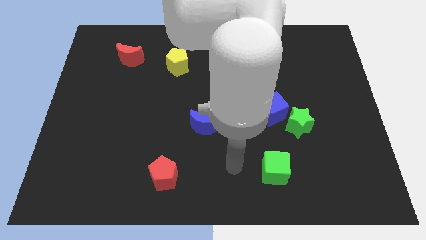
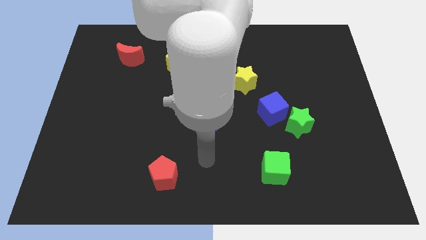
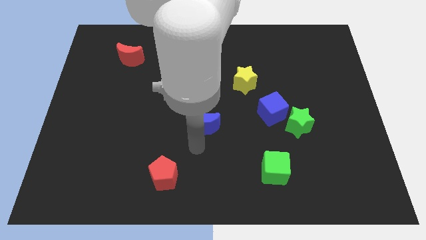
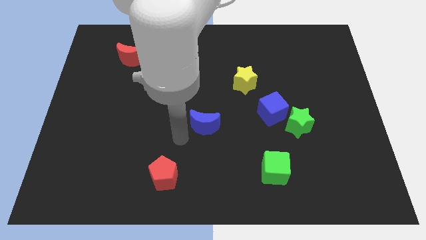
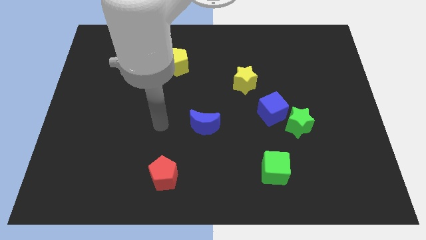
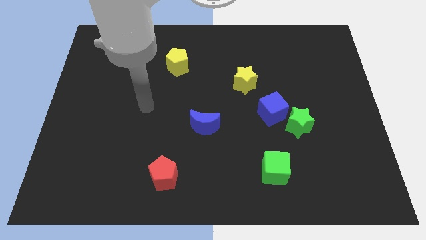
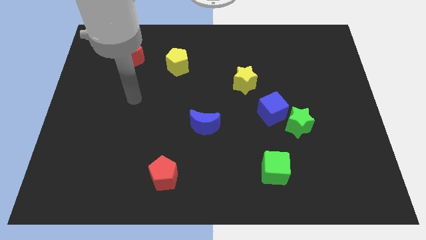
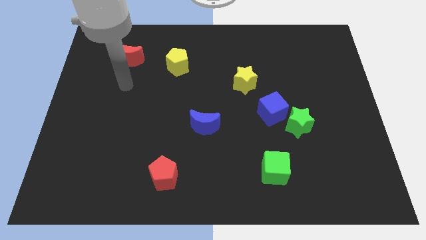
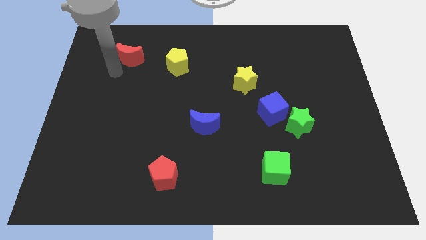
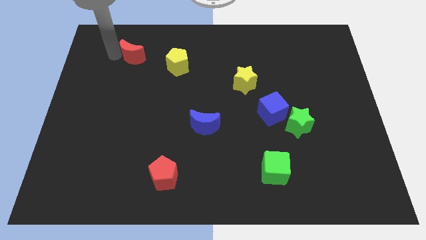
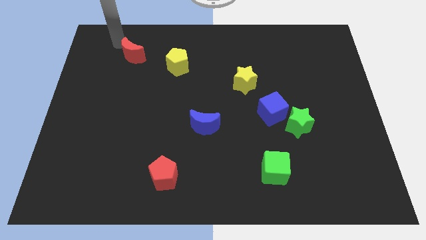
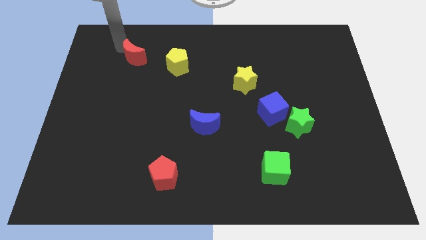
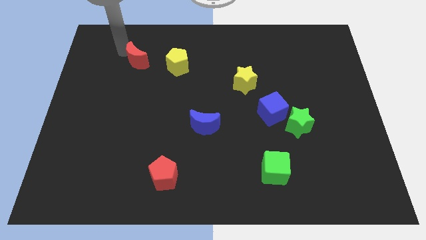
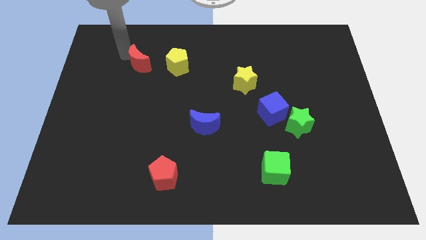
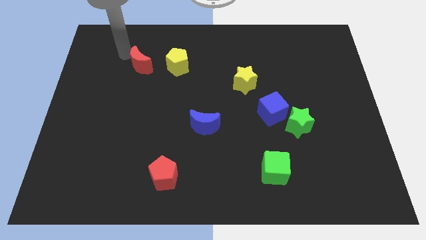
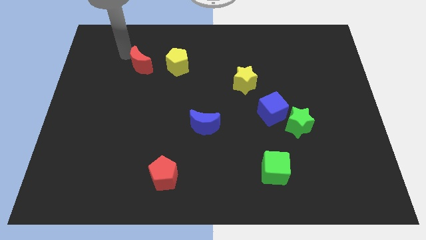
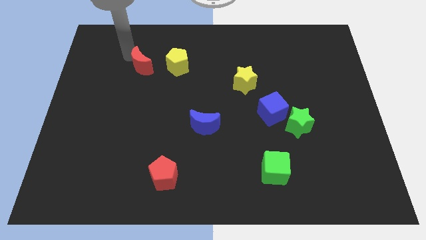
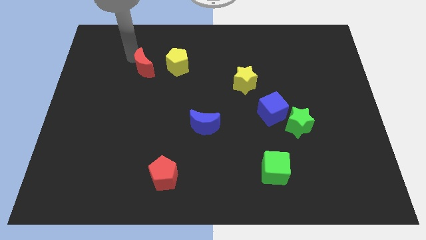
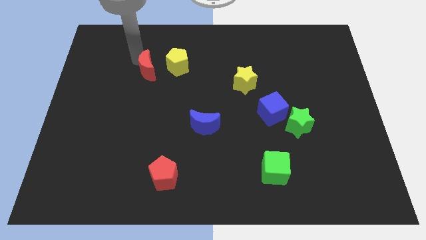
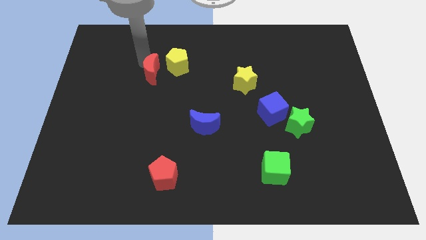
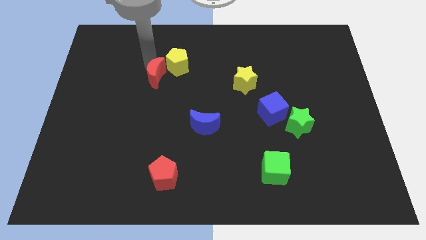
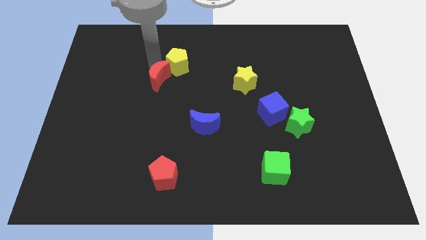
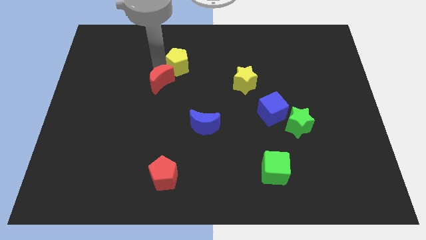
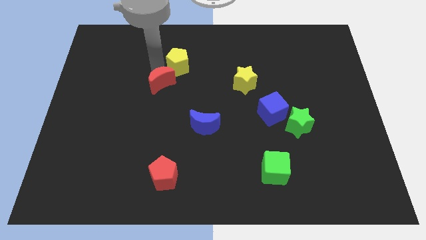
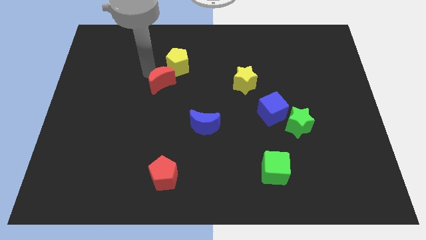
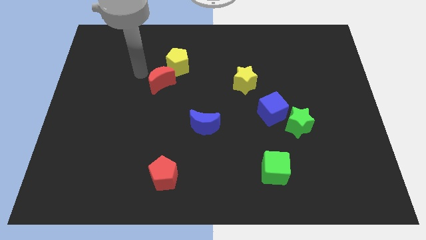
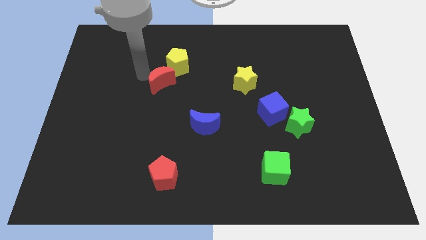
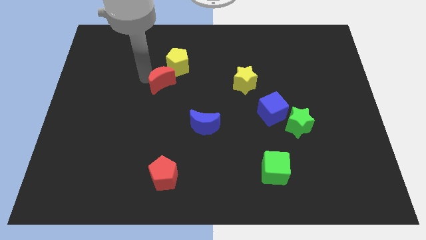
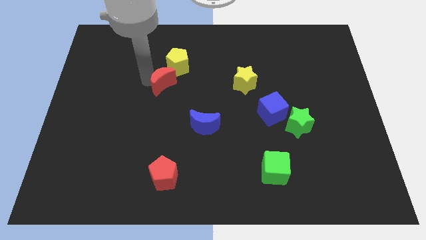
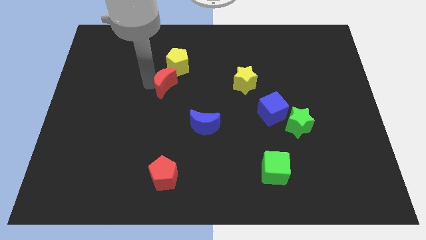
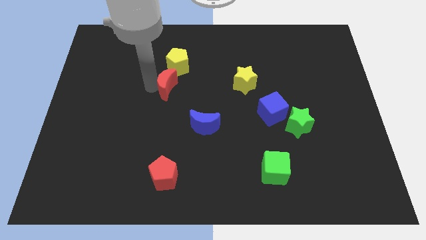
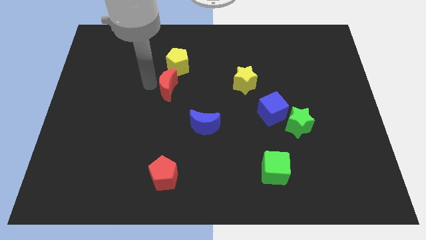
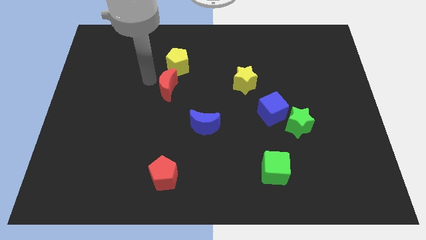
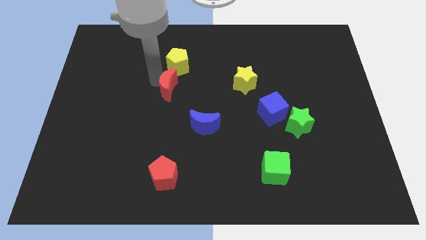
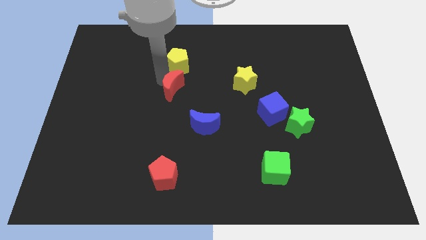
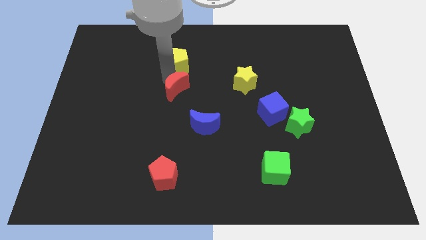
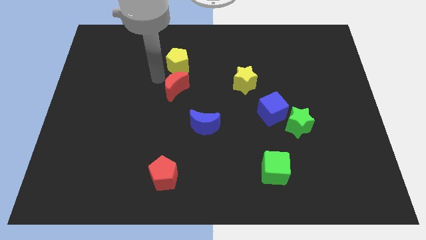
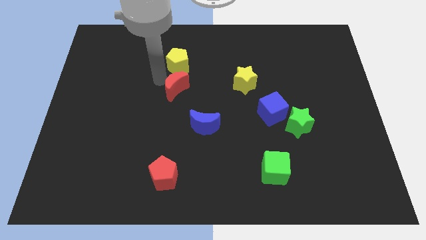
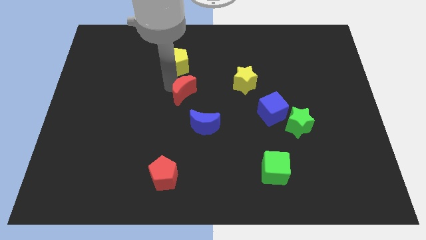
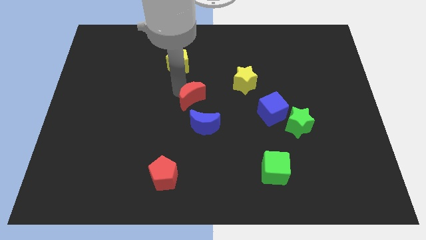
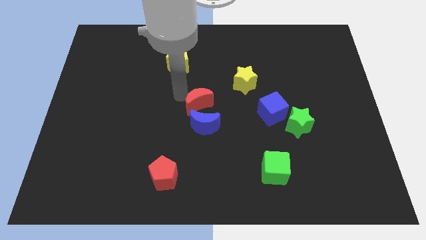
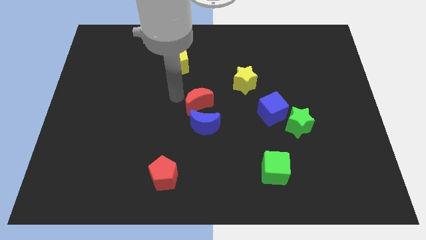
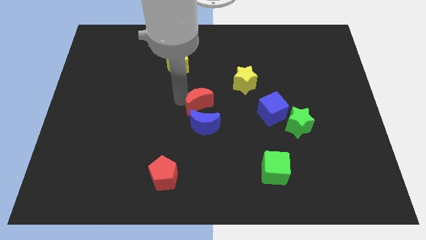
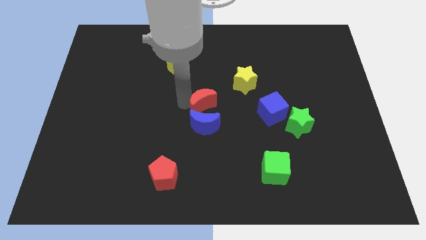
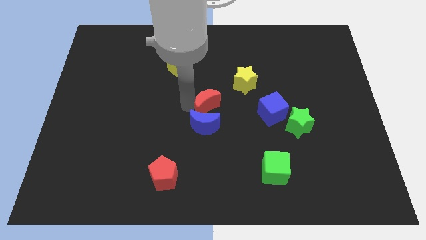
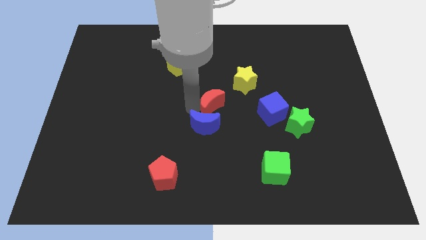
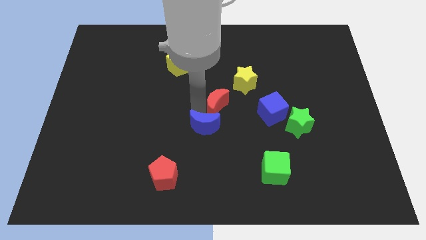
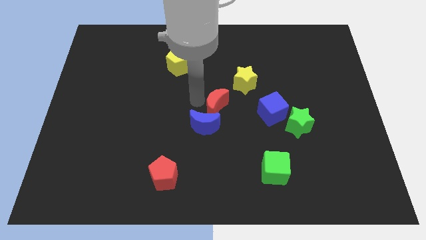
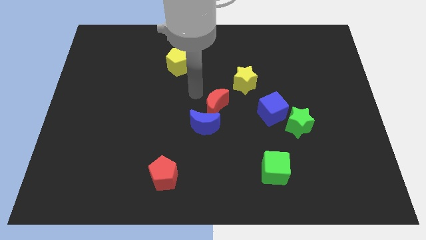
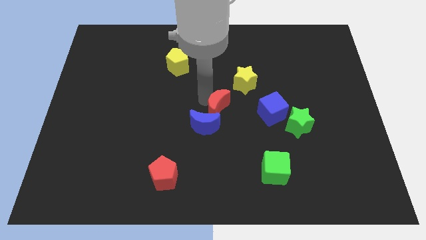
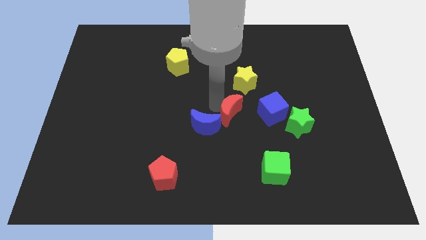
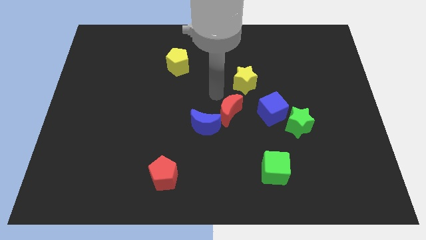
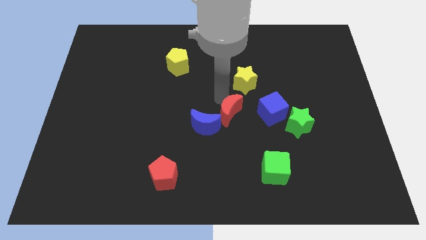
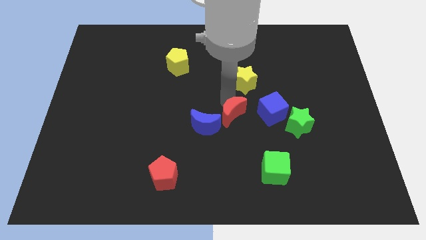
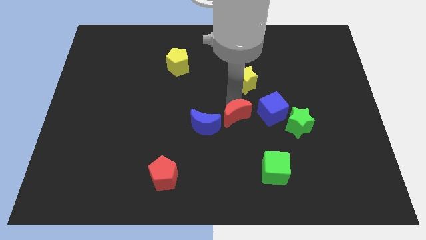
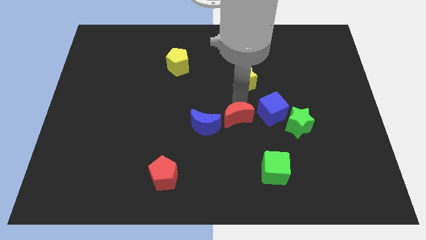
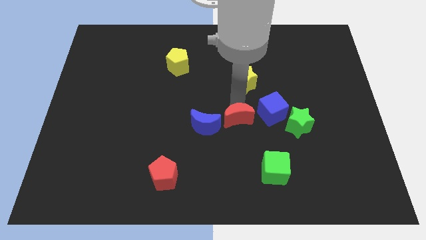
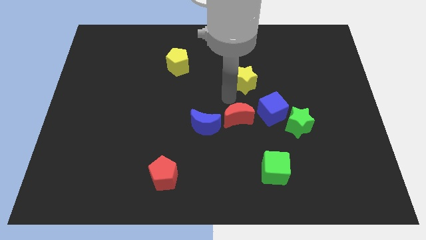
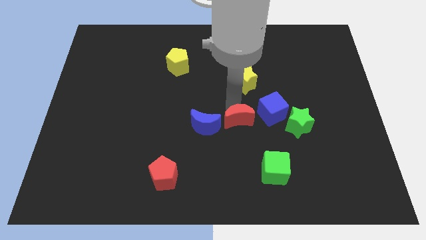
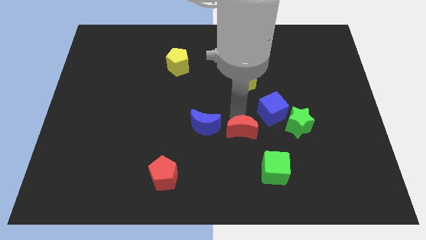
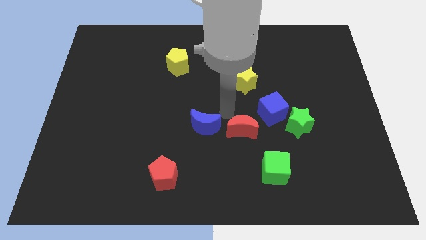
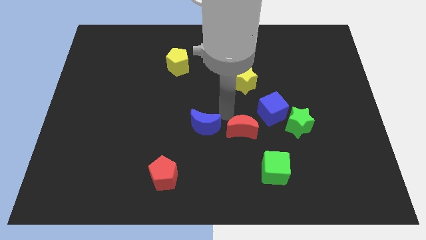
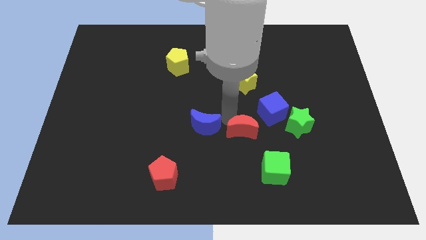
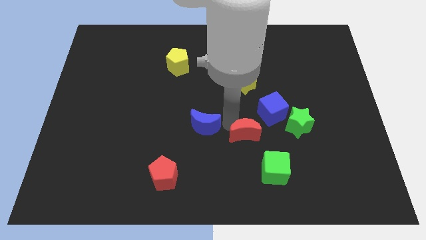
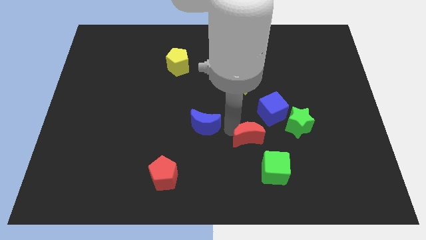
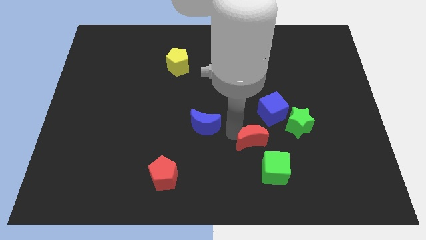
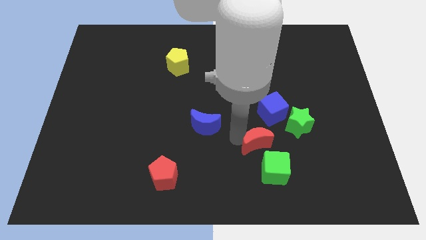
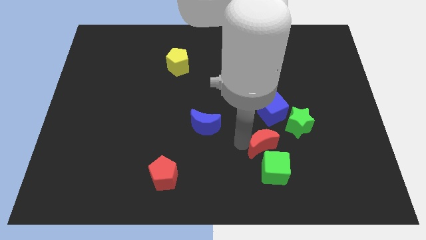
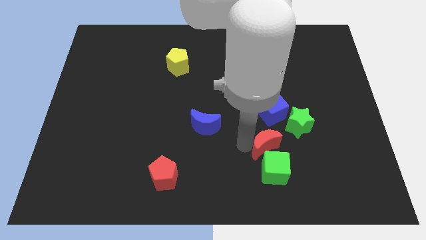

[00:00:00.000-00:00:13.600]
put the red moon close to the green cube
